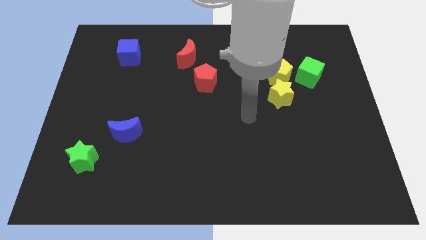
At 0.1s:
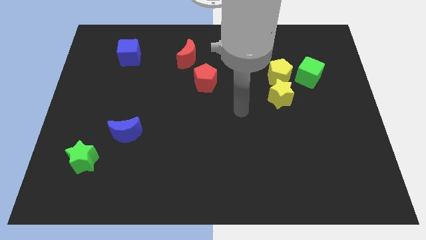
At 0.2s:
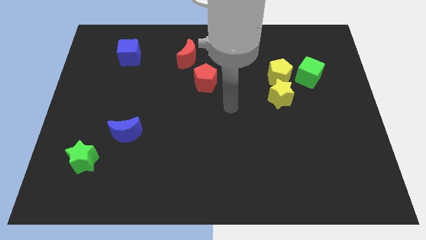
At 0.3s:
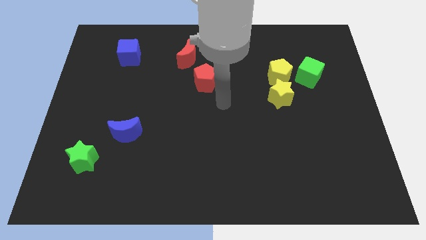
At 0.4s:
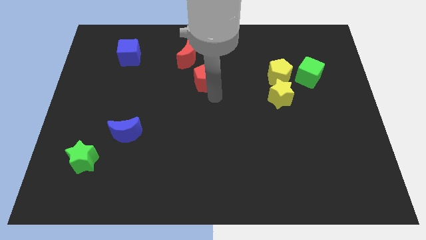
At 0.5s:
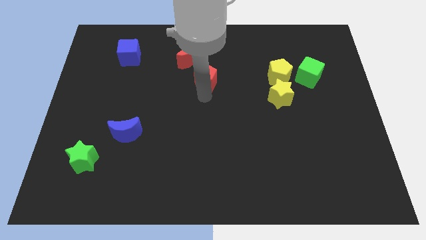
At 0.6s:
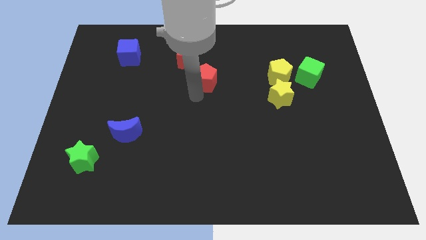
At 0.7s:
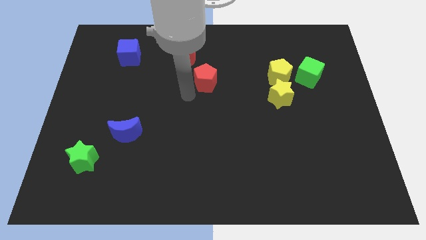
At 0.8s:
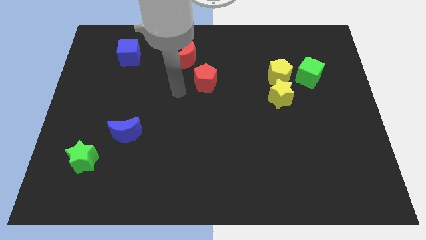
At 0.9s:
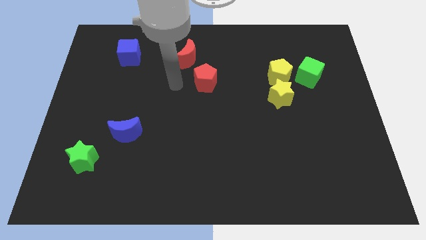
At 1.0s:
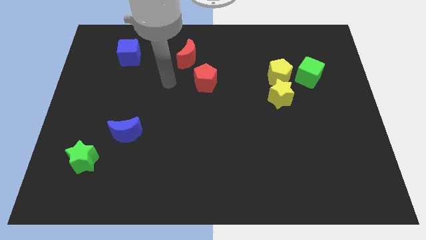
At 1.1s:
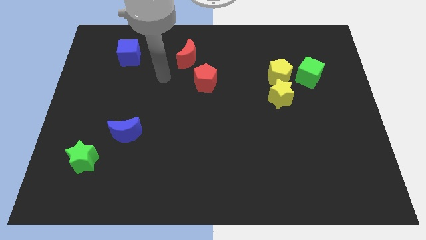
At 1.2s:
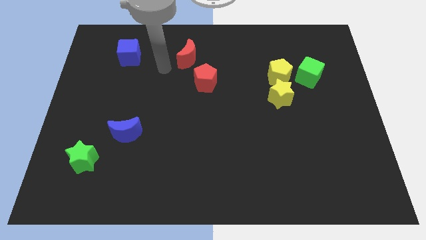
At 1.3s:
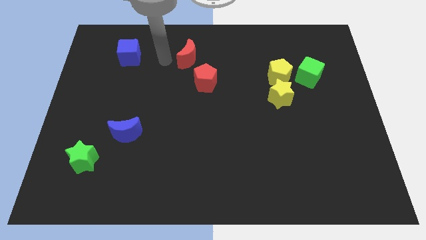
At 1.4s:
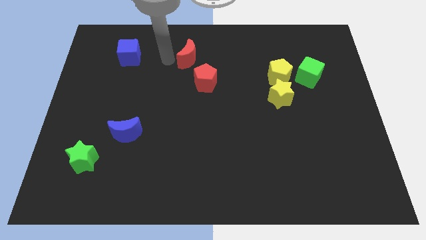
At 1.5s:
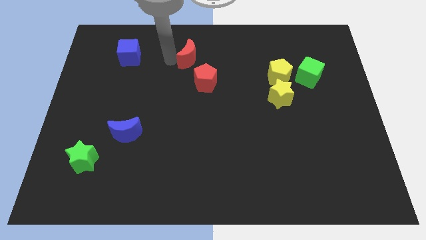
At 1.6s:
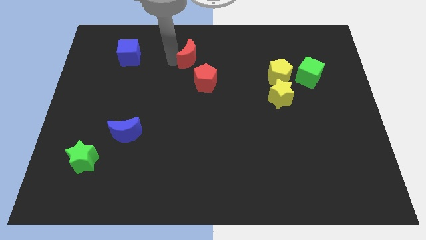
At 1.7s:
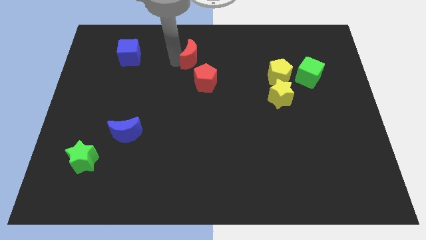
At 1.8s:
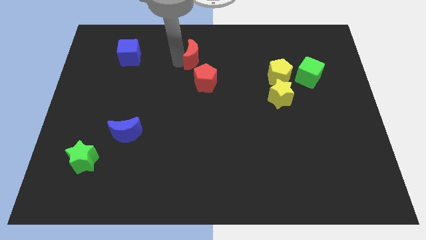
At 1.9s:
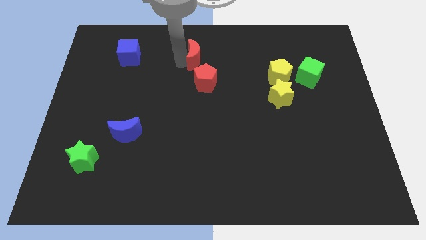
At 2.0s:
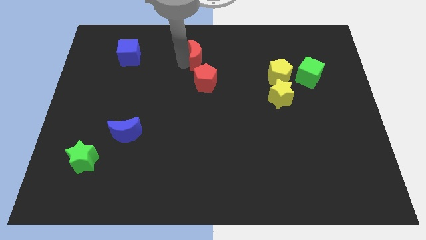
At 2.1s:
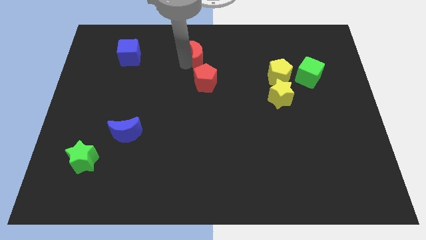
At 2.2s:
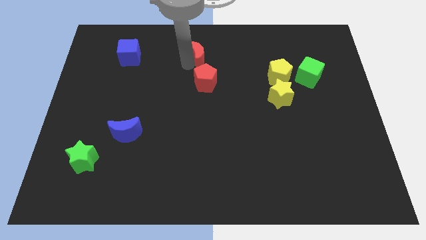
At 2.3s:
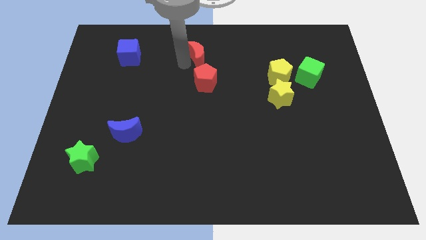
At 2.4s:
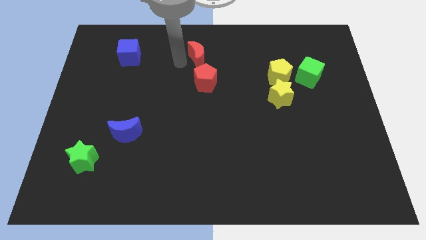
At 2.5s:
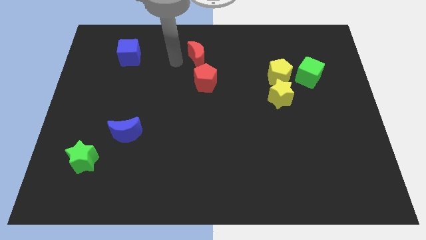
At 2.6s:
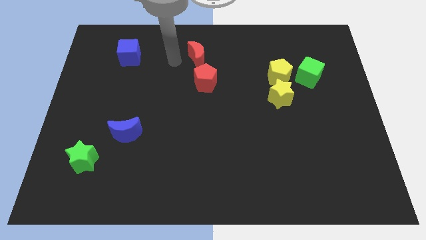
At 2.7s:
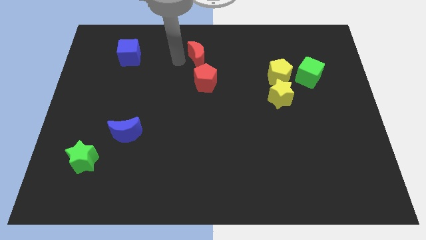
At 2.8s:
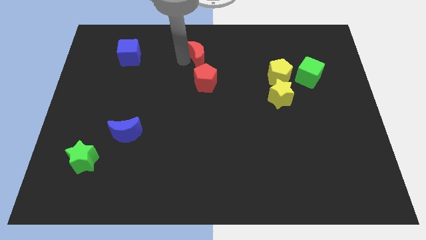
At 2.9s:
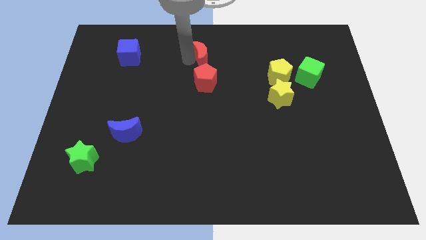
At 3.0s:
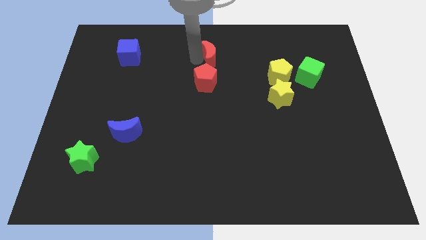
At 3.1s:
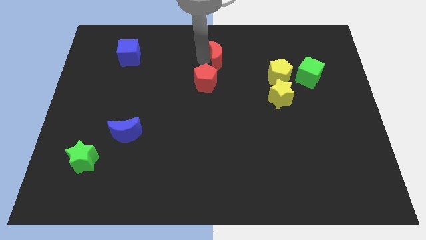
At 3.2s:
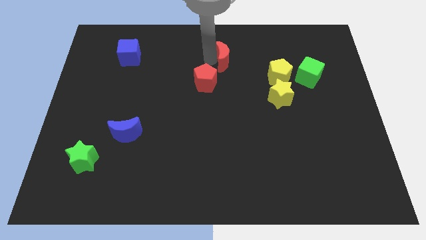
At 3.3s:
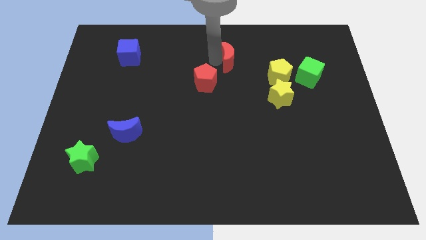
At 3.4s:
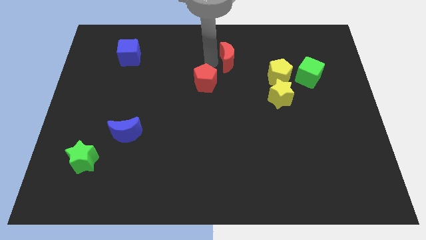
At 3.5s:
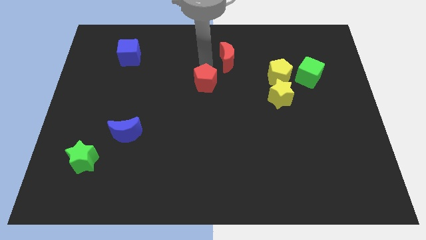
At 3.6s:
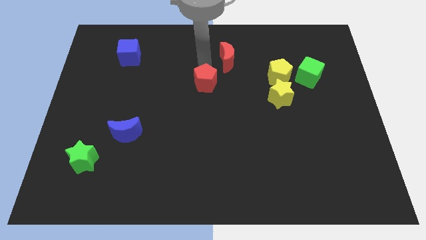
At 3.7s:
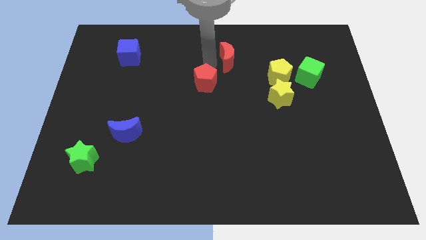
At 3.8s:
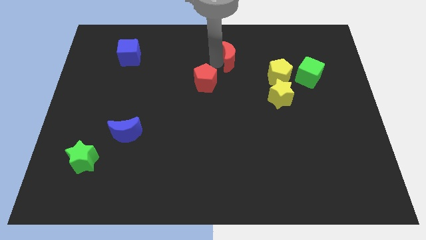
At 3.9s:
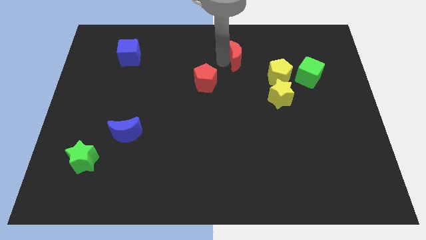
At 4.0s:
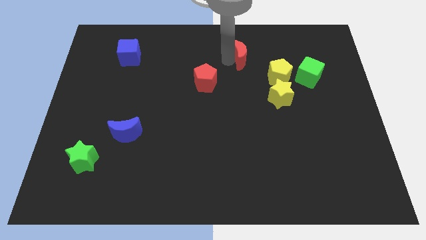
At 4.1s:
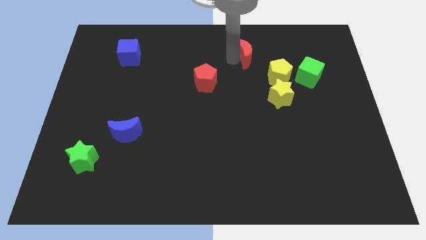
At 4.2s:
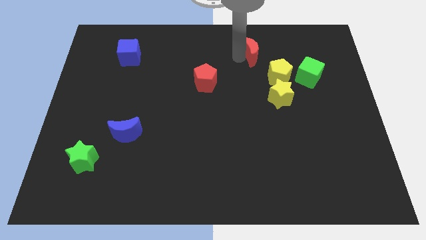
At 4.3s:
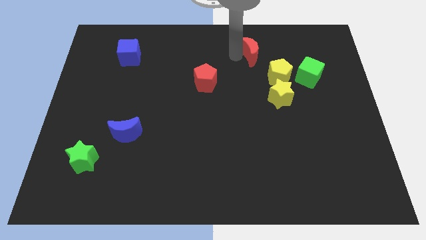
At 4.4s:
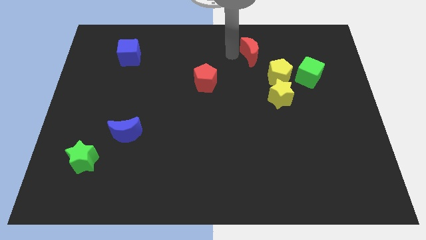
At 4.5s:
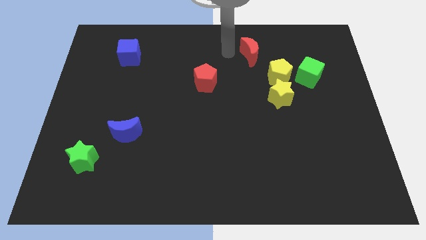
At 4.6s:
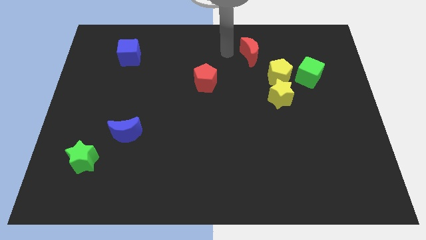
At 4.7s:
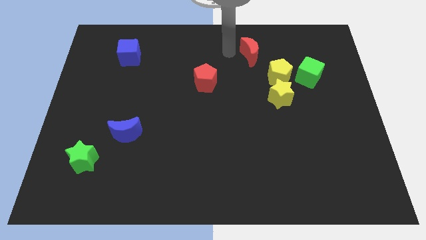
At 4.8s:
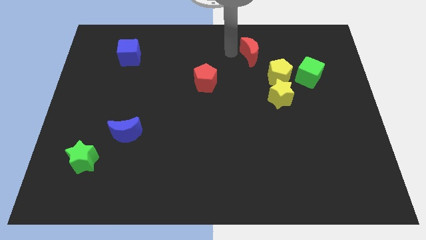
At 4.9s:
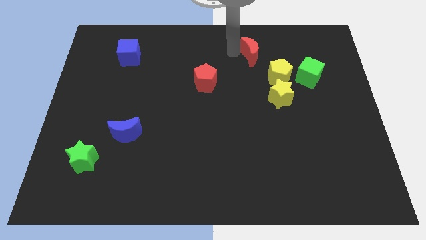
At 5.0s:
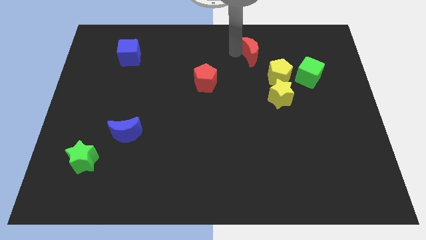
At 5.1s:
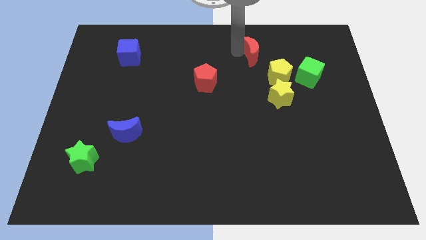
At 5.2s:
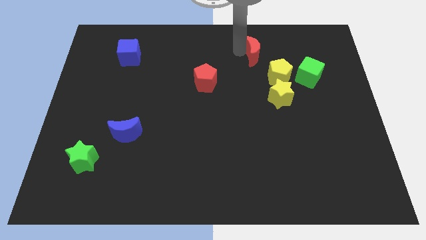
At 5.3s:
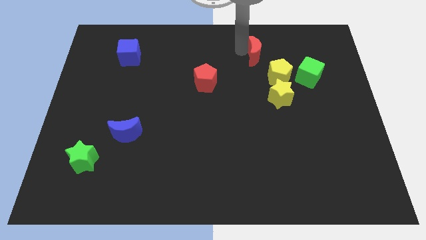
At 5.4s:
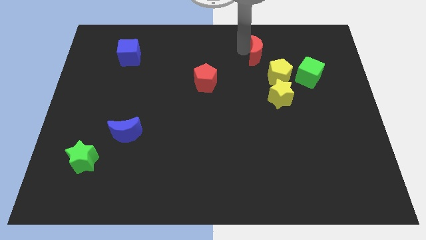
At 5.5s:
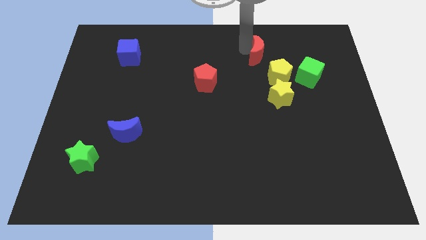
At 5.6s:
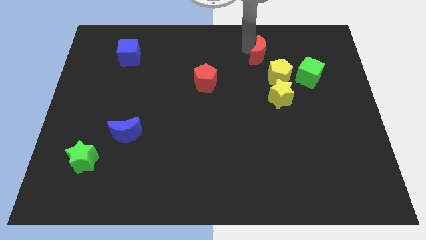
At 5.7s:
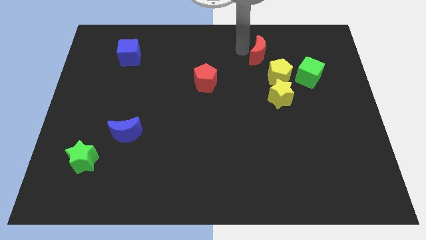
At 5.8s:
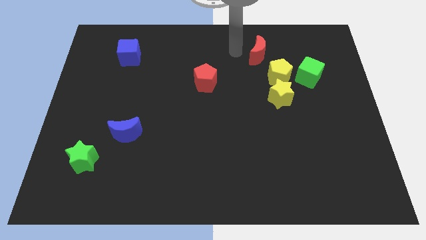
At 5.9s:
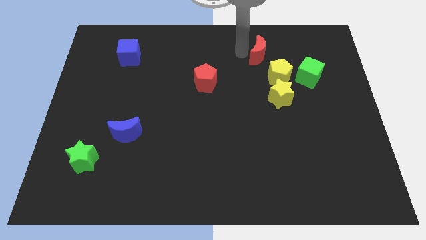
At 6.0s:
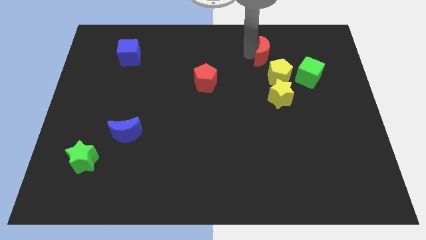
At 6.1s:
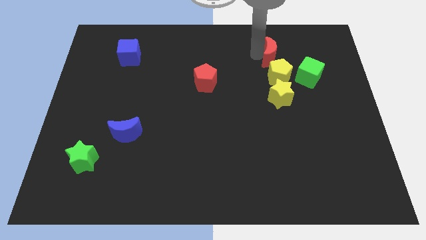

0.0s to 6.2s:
slide the red moon right

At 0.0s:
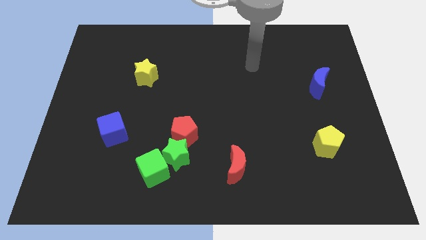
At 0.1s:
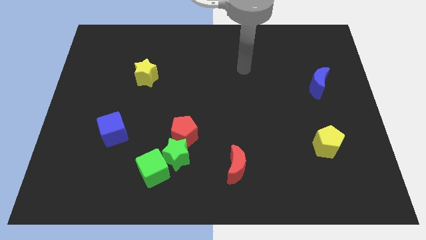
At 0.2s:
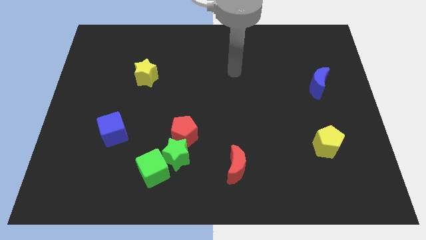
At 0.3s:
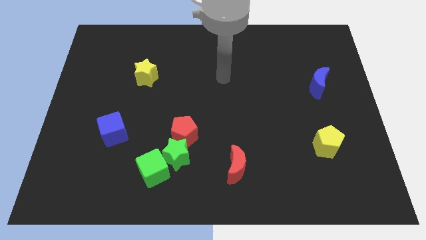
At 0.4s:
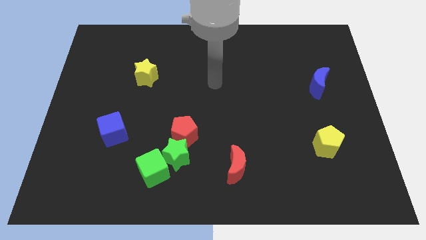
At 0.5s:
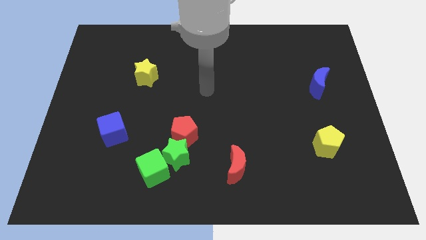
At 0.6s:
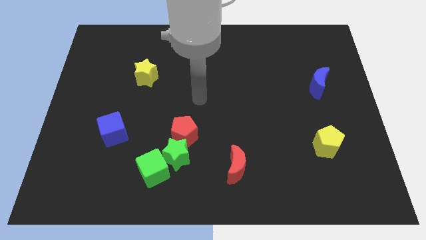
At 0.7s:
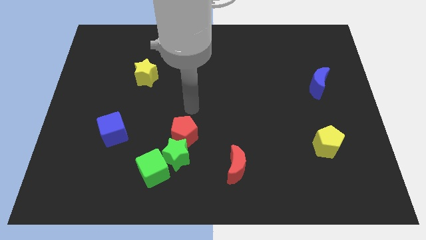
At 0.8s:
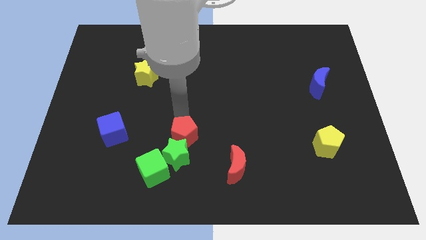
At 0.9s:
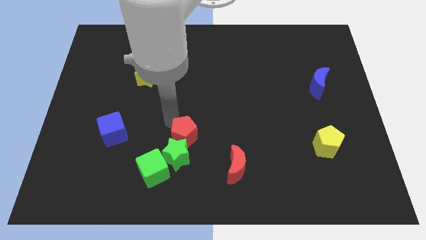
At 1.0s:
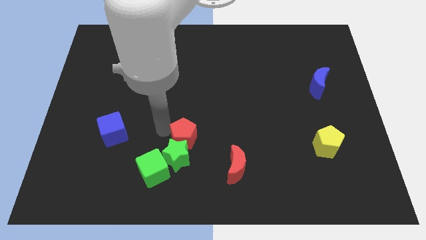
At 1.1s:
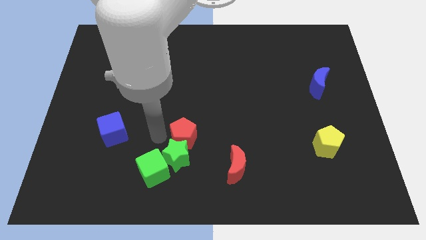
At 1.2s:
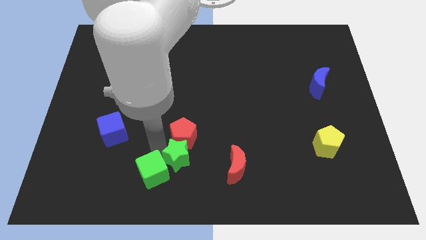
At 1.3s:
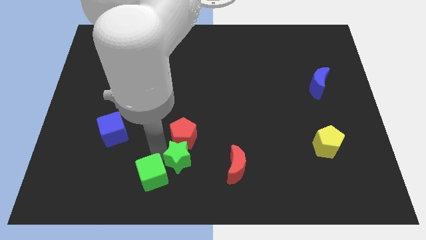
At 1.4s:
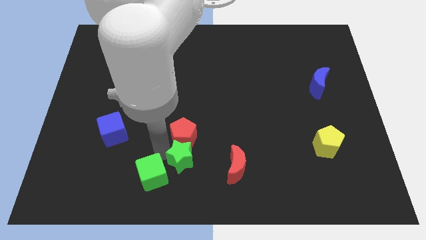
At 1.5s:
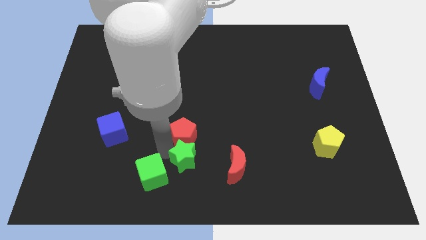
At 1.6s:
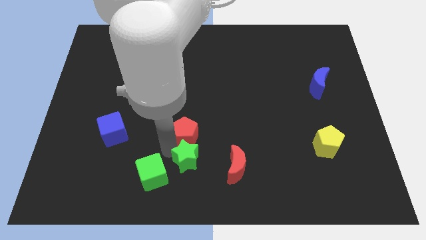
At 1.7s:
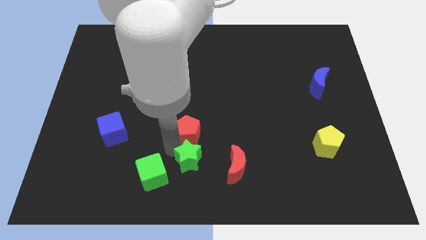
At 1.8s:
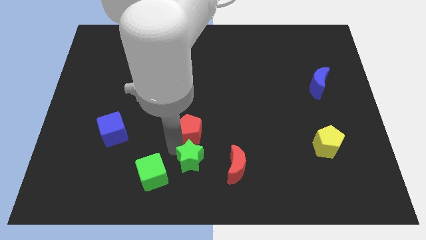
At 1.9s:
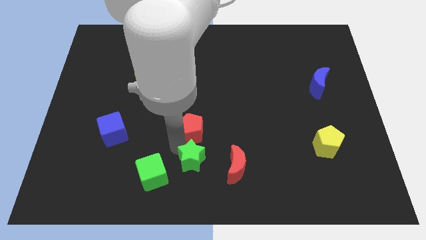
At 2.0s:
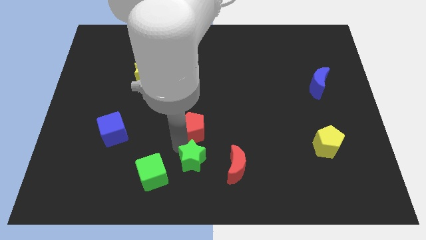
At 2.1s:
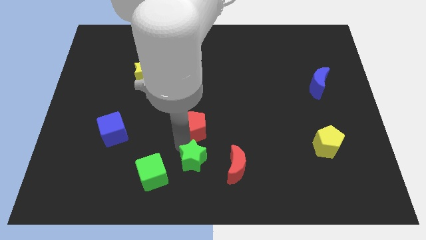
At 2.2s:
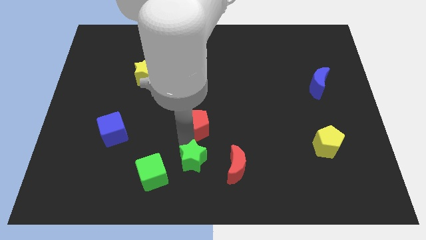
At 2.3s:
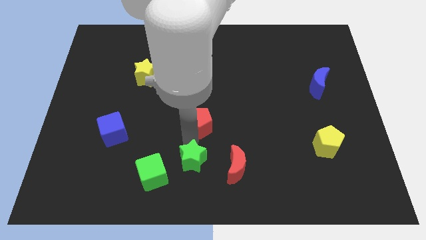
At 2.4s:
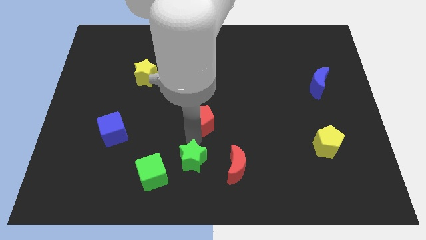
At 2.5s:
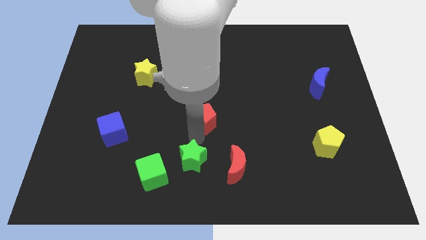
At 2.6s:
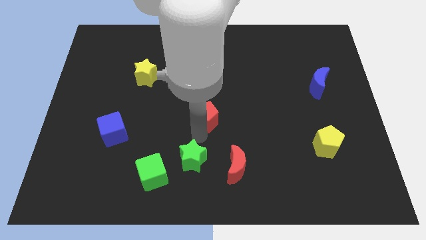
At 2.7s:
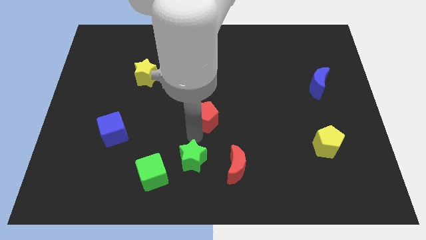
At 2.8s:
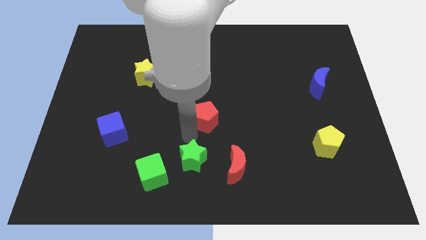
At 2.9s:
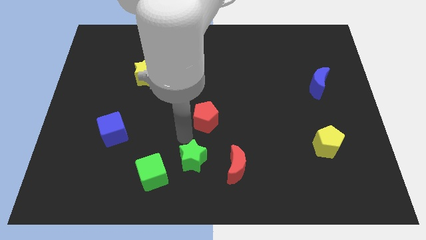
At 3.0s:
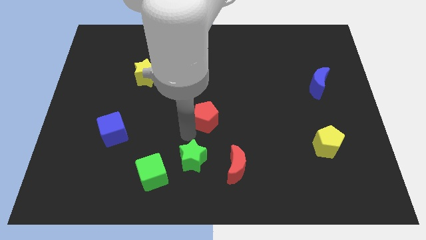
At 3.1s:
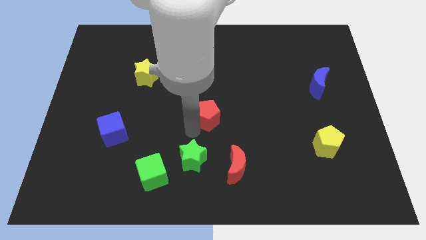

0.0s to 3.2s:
push the red pentagon somewhat up and then to the right
